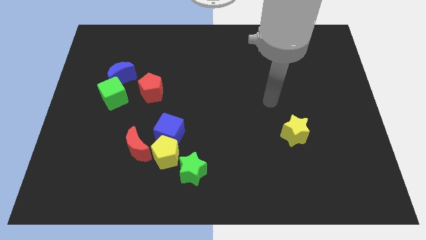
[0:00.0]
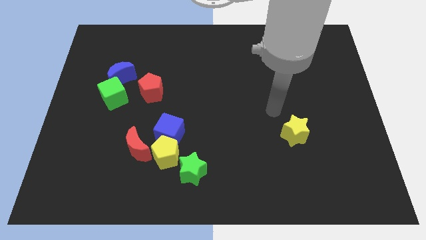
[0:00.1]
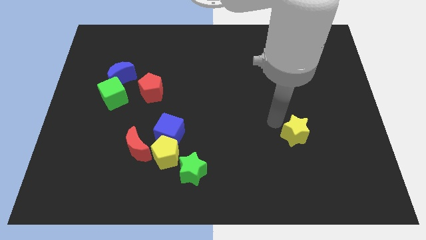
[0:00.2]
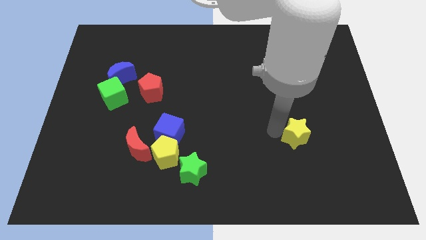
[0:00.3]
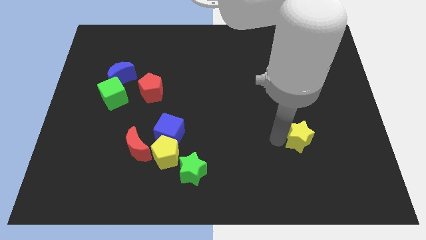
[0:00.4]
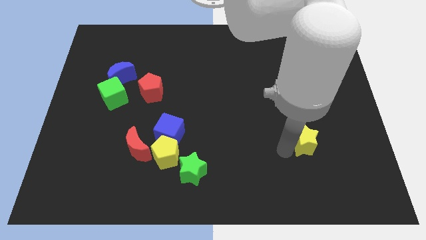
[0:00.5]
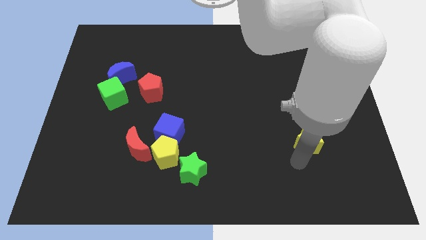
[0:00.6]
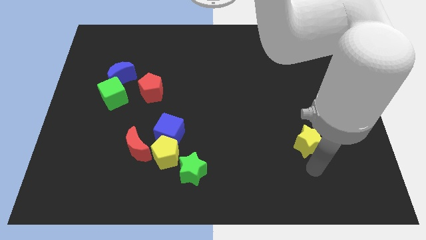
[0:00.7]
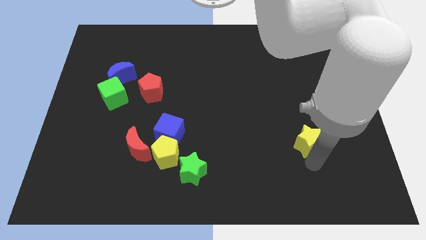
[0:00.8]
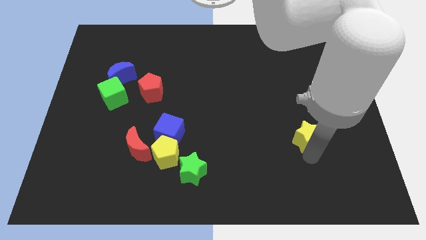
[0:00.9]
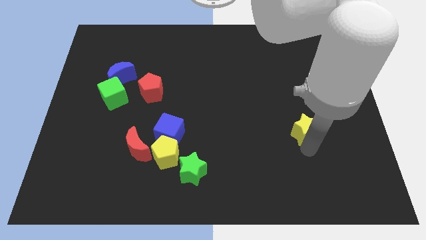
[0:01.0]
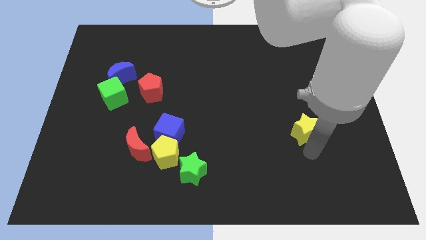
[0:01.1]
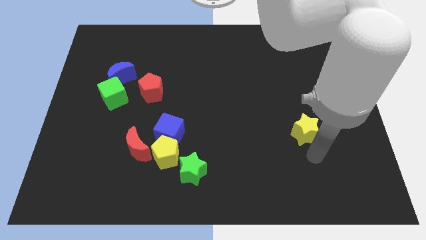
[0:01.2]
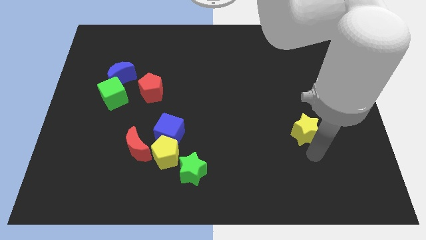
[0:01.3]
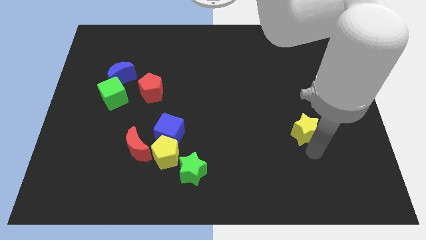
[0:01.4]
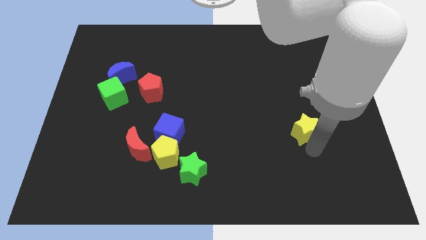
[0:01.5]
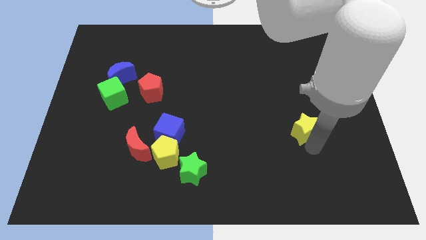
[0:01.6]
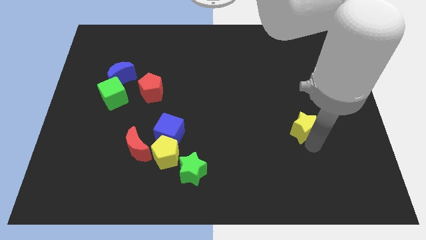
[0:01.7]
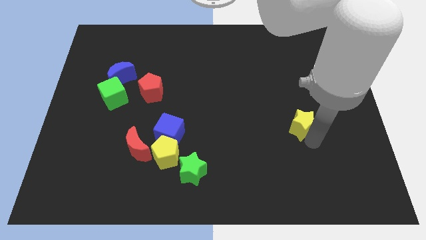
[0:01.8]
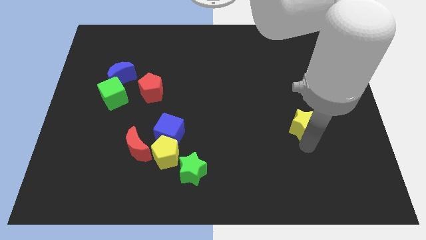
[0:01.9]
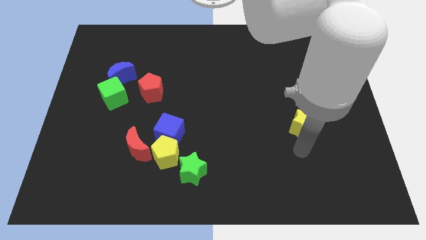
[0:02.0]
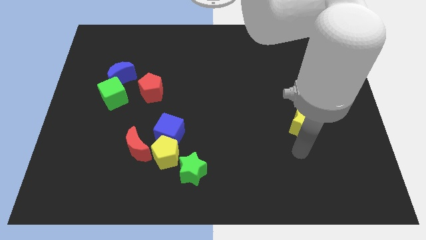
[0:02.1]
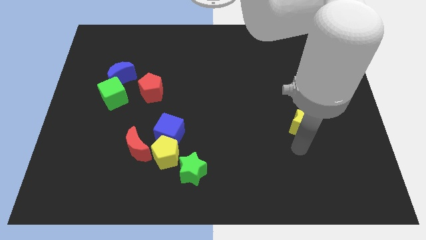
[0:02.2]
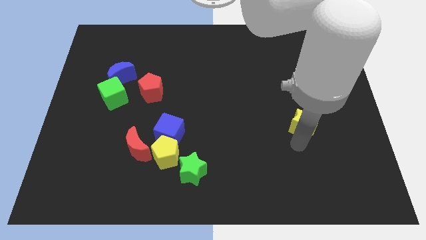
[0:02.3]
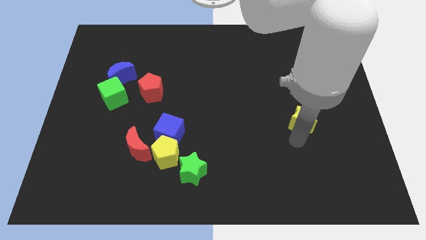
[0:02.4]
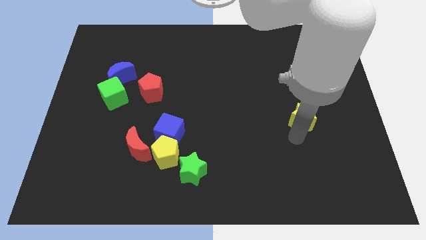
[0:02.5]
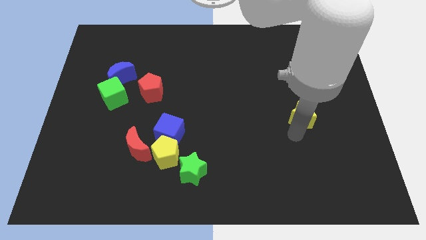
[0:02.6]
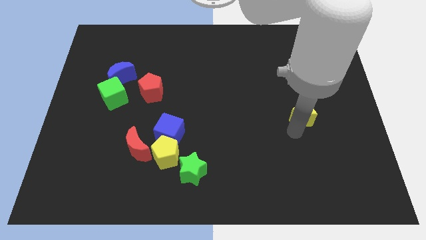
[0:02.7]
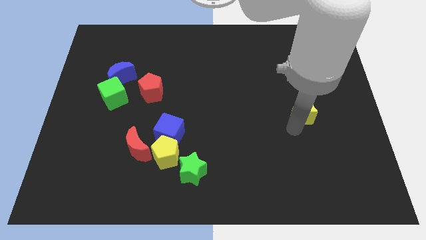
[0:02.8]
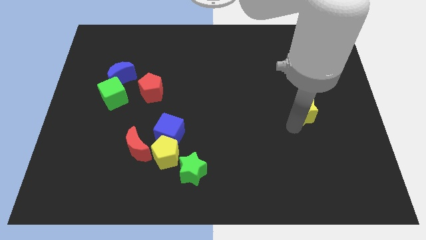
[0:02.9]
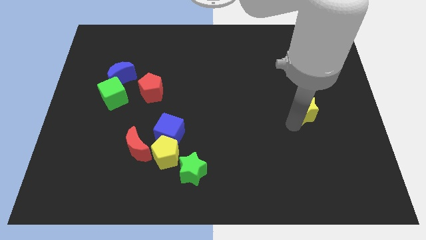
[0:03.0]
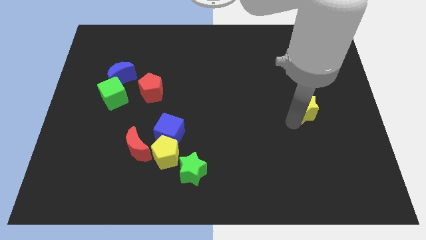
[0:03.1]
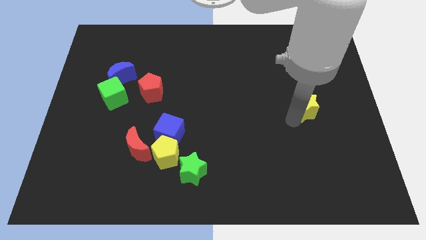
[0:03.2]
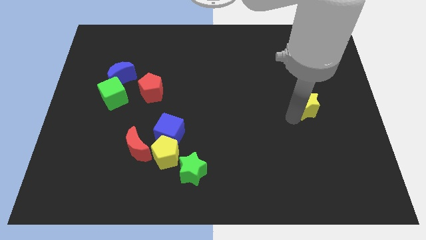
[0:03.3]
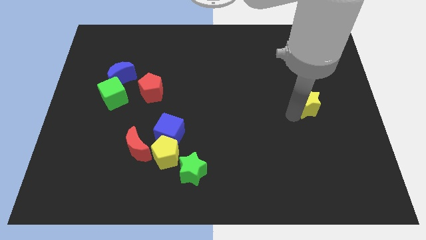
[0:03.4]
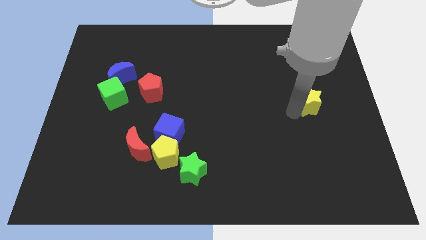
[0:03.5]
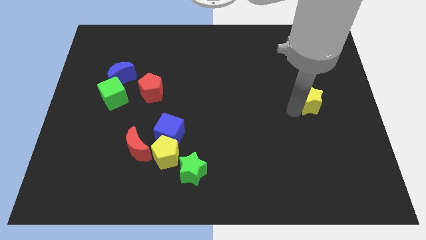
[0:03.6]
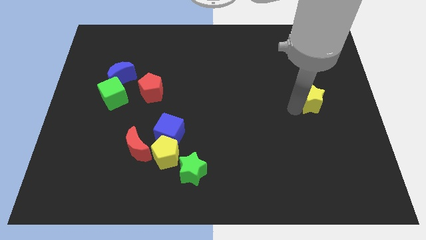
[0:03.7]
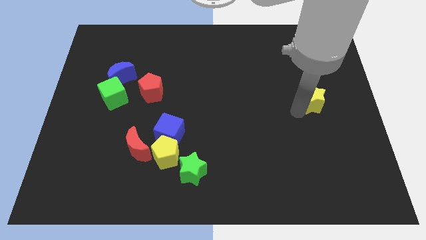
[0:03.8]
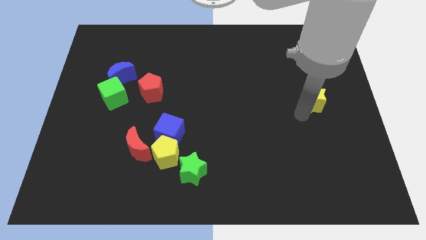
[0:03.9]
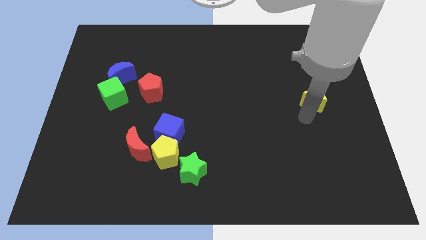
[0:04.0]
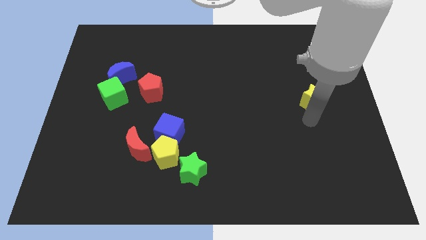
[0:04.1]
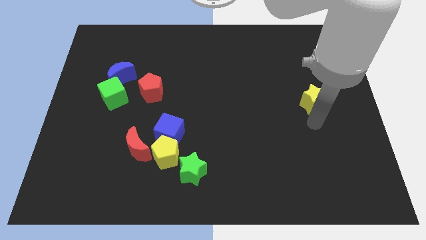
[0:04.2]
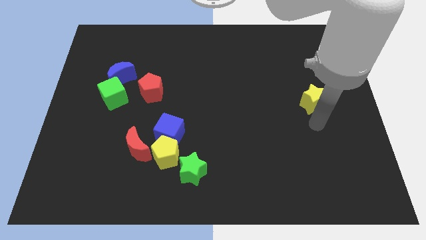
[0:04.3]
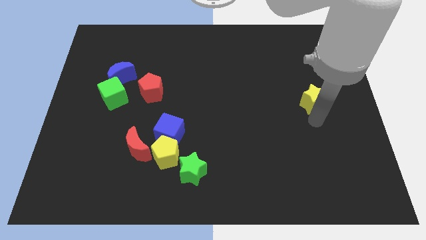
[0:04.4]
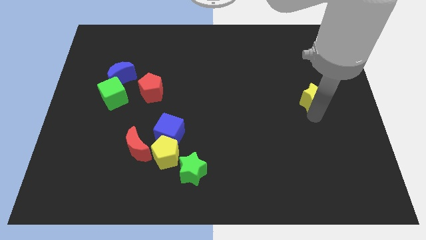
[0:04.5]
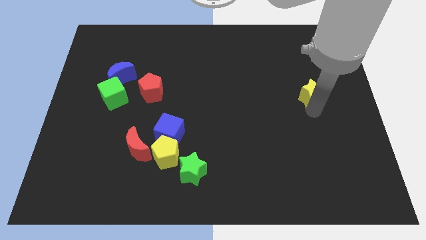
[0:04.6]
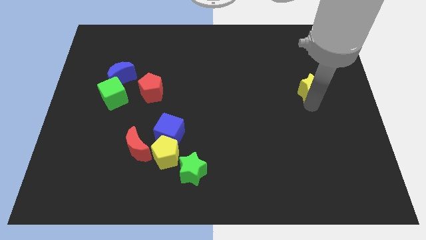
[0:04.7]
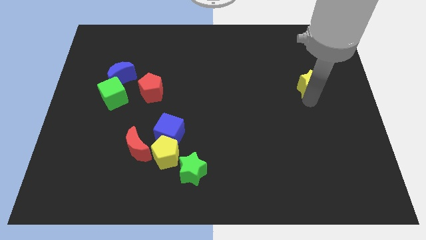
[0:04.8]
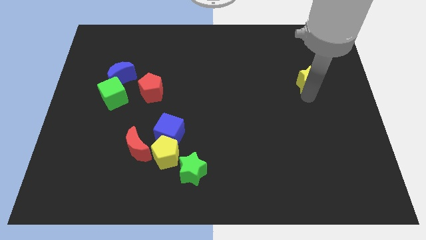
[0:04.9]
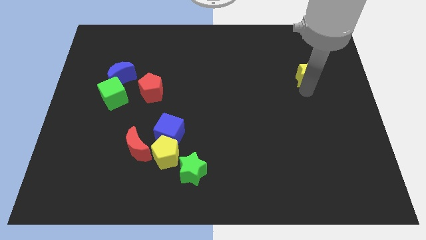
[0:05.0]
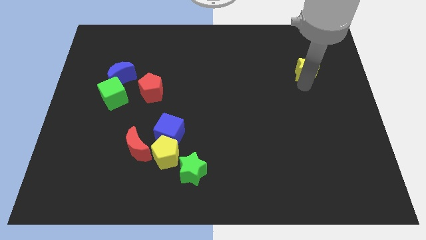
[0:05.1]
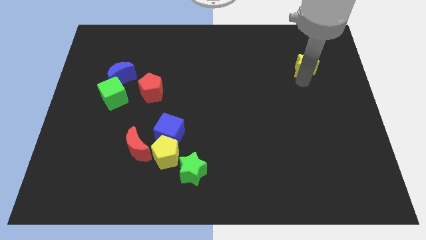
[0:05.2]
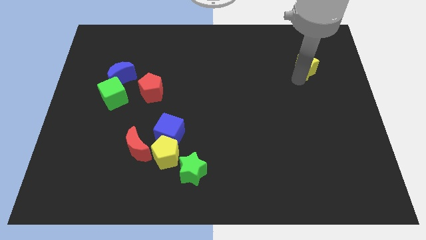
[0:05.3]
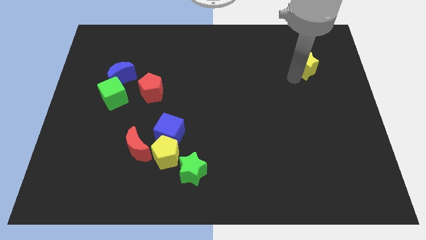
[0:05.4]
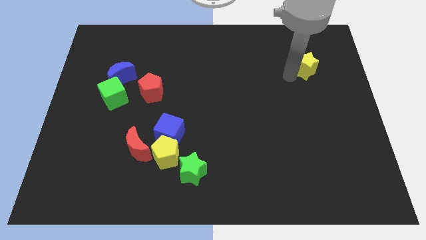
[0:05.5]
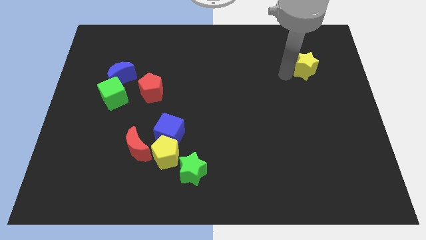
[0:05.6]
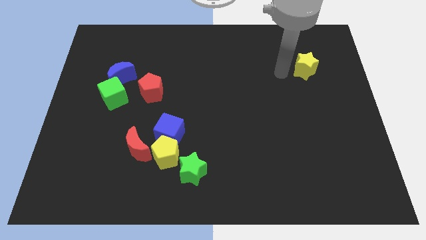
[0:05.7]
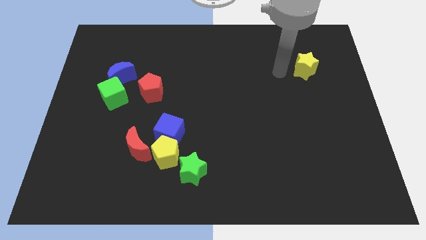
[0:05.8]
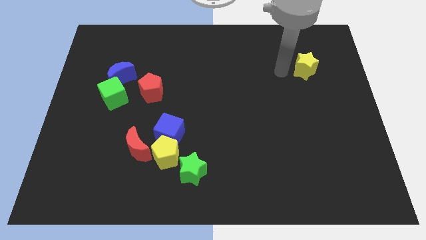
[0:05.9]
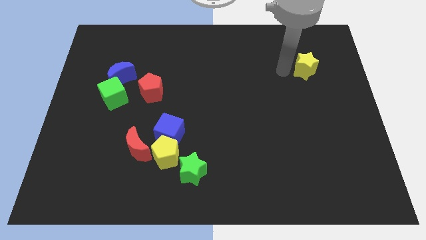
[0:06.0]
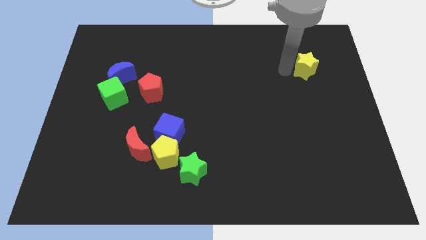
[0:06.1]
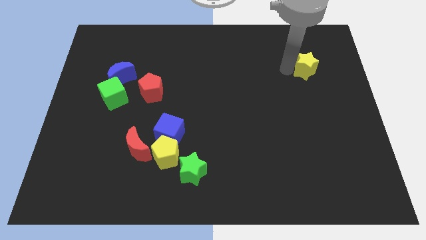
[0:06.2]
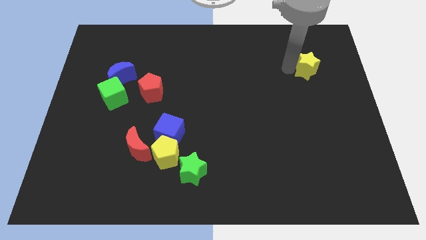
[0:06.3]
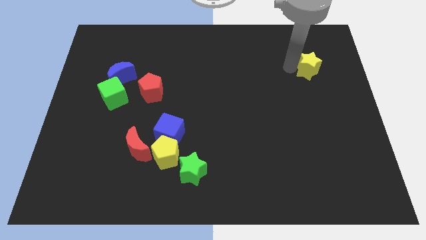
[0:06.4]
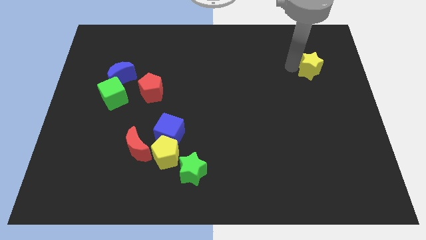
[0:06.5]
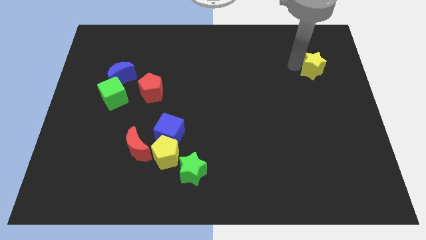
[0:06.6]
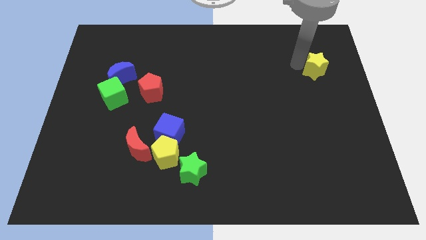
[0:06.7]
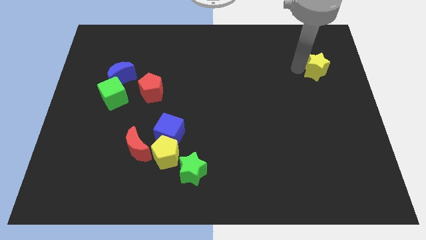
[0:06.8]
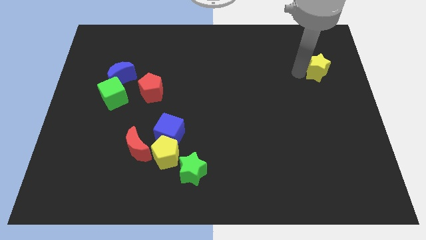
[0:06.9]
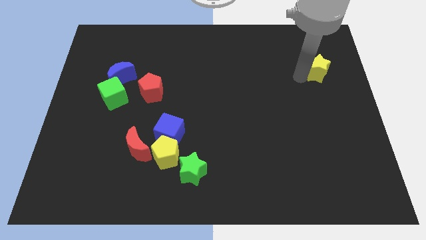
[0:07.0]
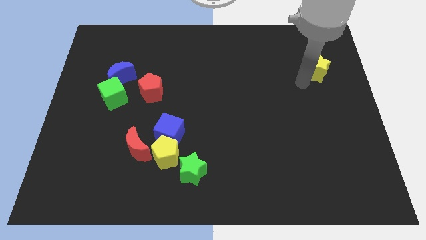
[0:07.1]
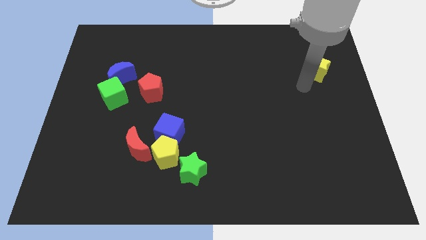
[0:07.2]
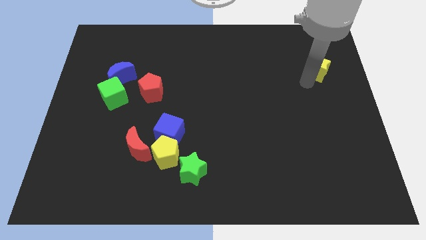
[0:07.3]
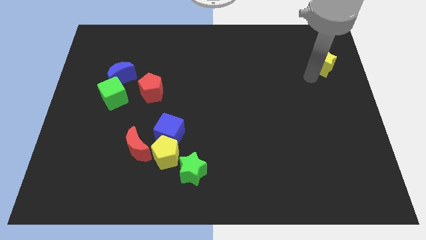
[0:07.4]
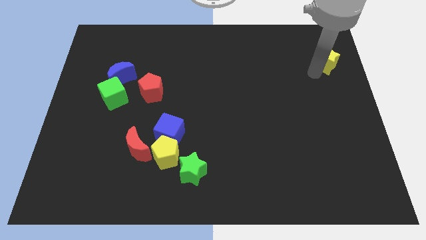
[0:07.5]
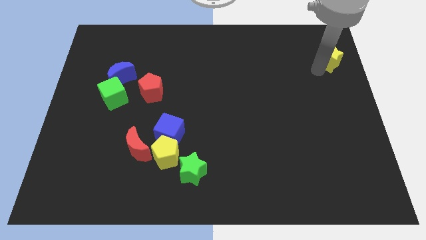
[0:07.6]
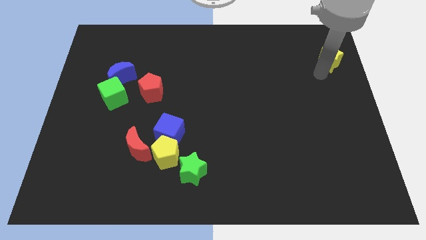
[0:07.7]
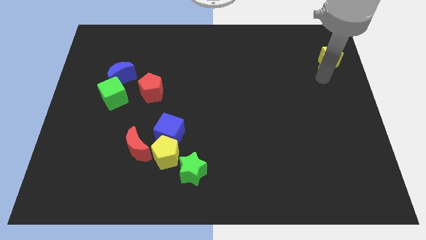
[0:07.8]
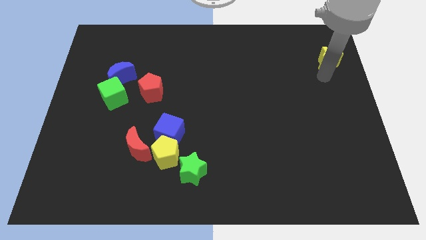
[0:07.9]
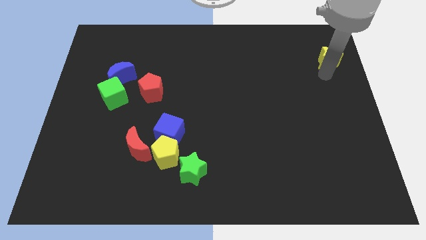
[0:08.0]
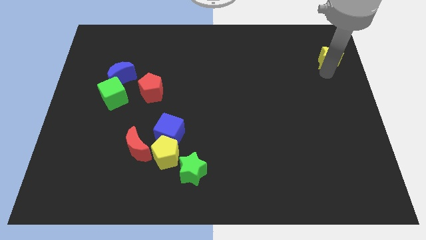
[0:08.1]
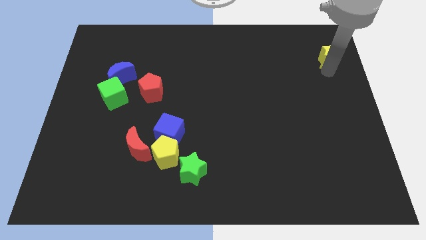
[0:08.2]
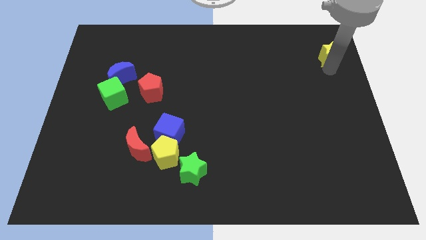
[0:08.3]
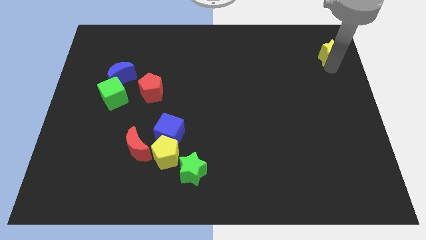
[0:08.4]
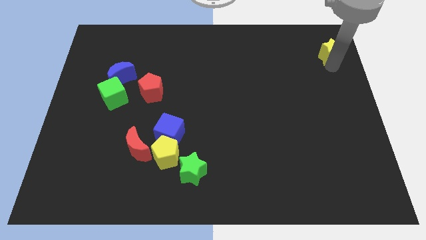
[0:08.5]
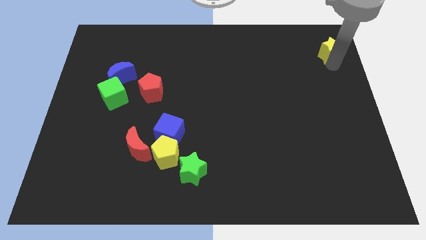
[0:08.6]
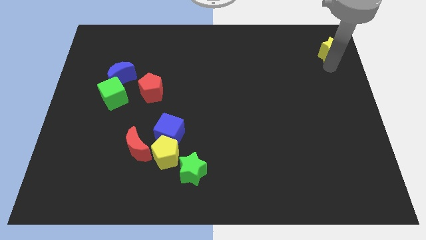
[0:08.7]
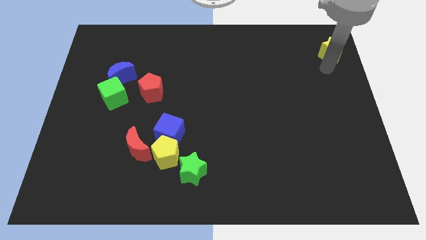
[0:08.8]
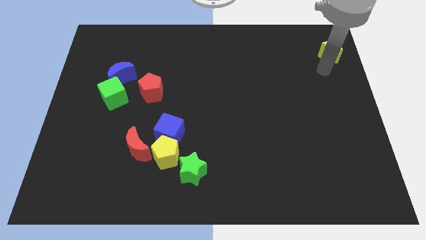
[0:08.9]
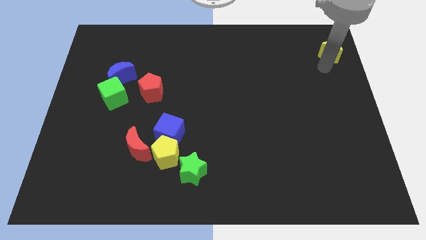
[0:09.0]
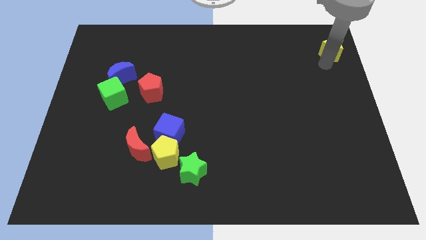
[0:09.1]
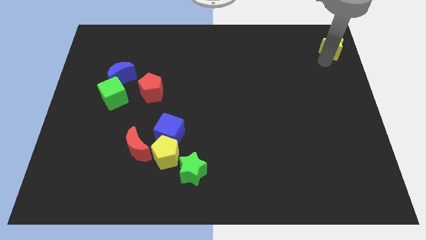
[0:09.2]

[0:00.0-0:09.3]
slide the yellow star to the top right
